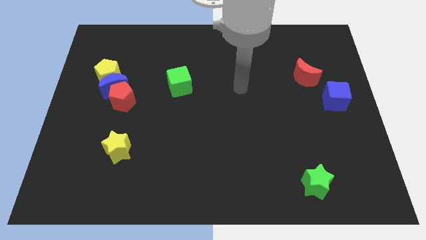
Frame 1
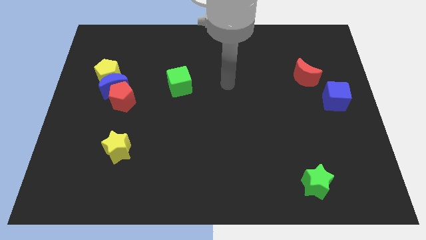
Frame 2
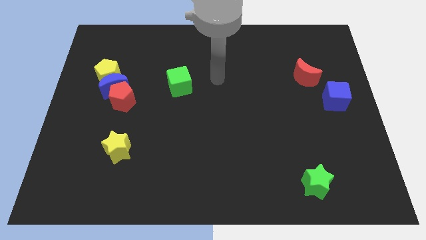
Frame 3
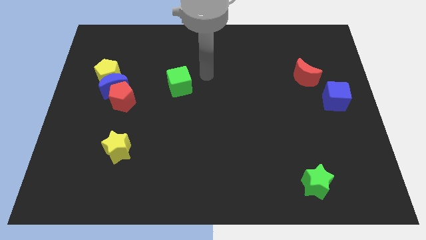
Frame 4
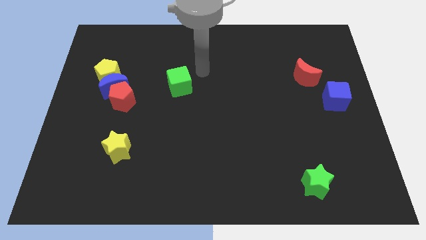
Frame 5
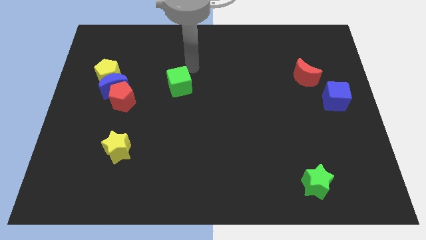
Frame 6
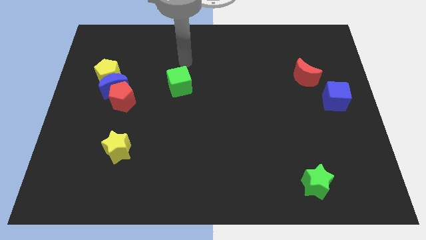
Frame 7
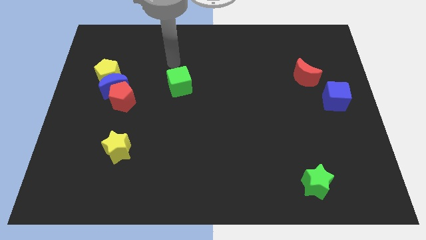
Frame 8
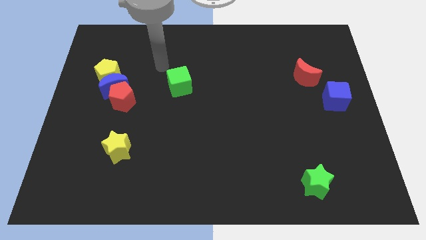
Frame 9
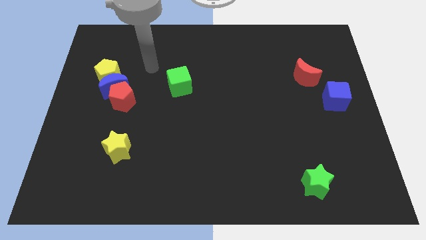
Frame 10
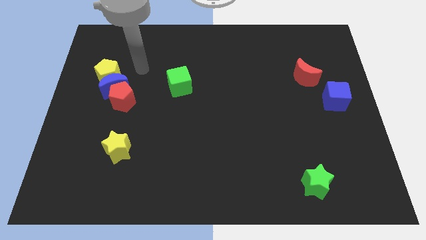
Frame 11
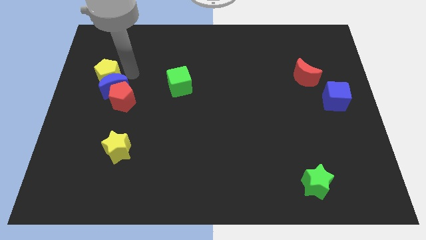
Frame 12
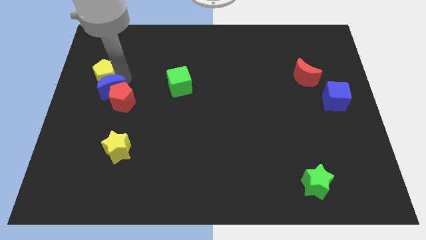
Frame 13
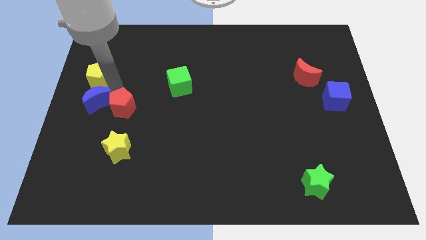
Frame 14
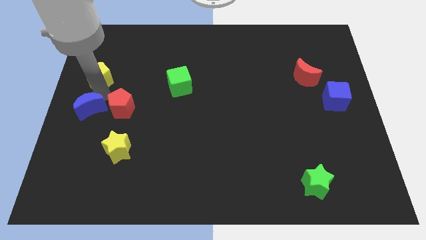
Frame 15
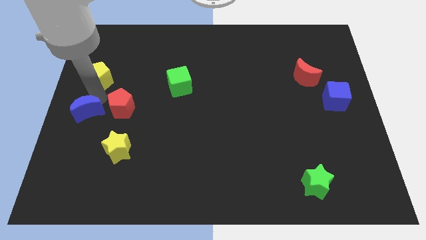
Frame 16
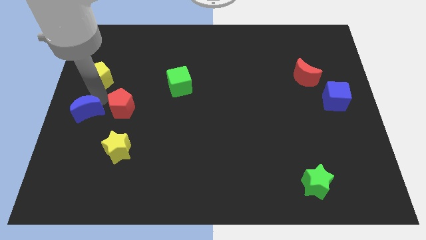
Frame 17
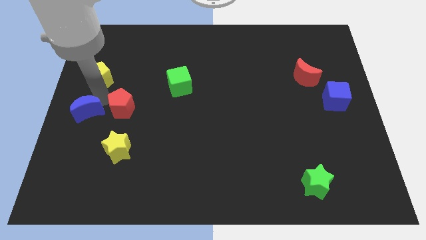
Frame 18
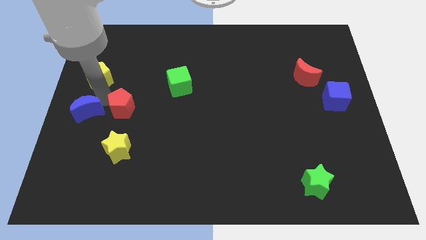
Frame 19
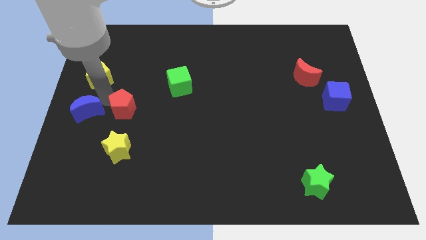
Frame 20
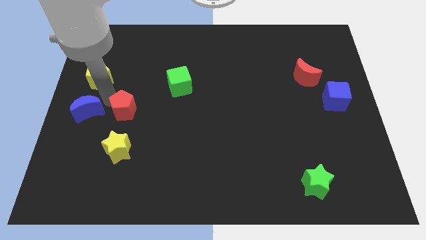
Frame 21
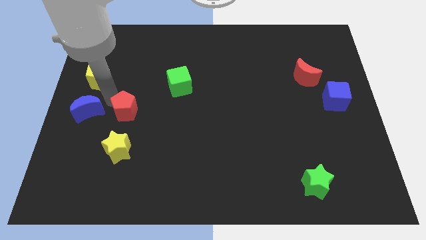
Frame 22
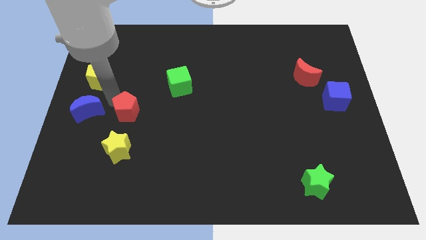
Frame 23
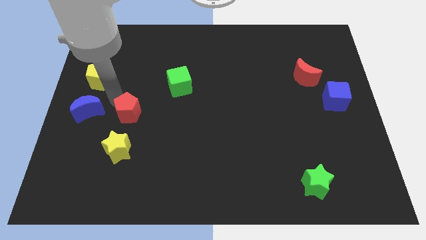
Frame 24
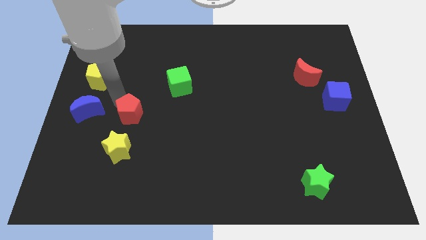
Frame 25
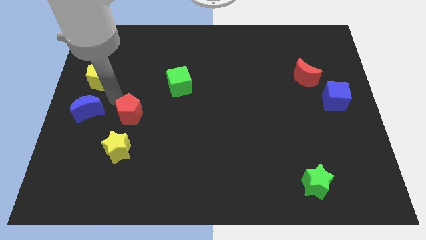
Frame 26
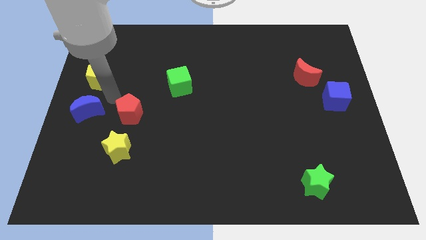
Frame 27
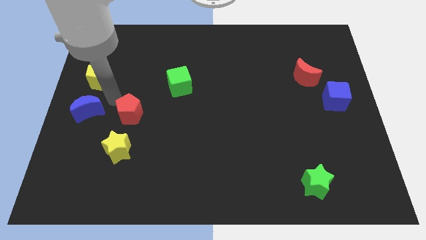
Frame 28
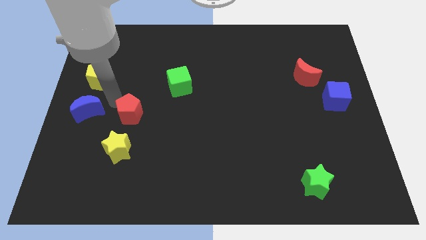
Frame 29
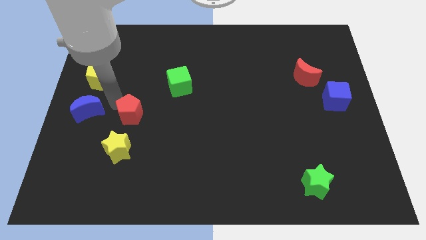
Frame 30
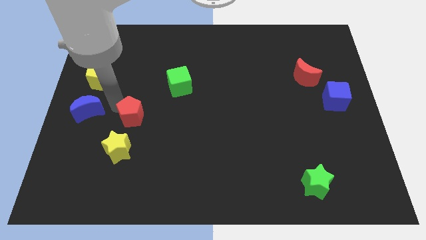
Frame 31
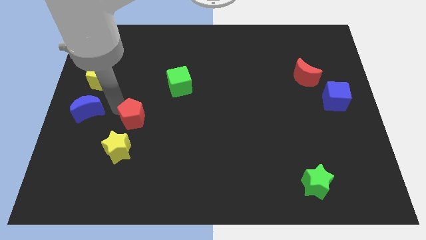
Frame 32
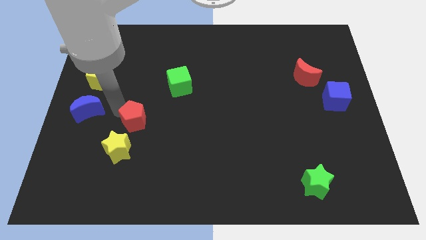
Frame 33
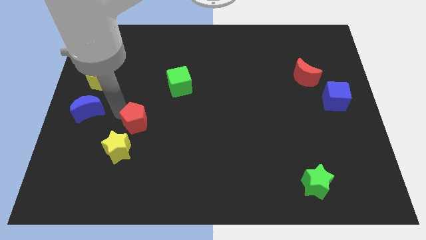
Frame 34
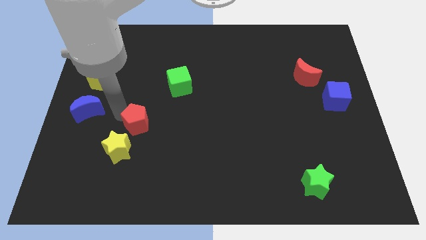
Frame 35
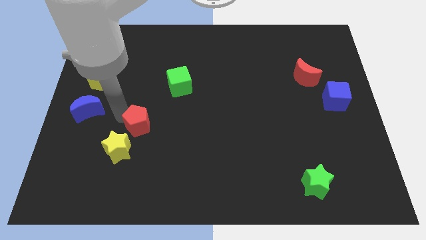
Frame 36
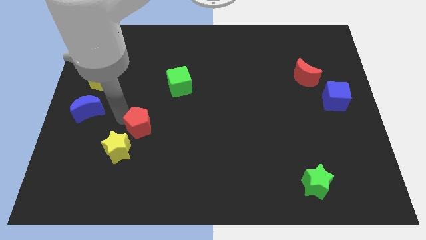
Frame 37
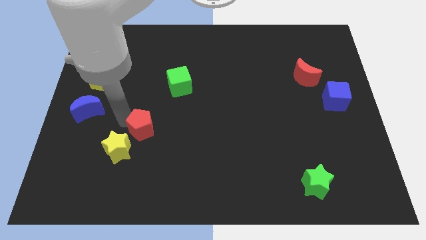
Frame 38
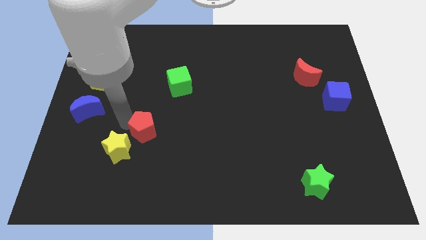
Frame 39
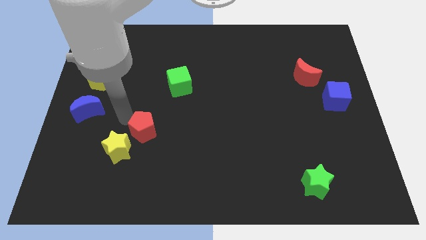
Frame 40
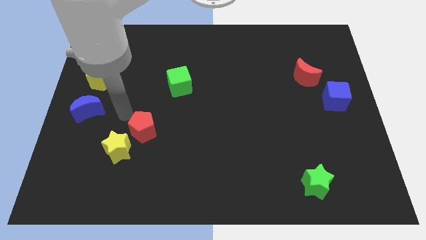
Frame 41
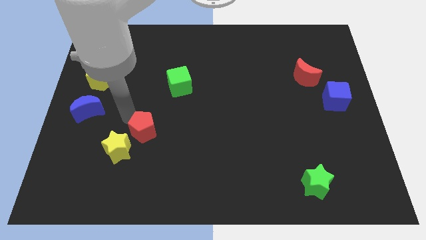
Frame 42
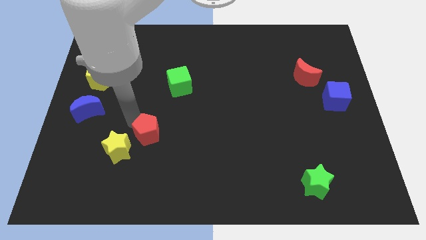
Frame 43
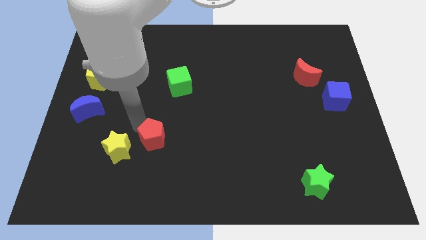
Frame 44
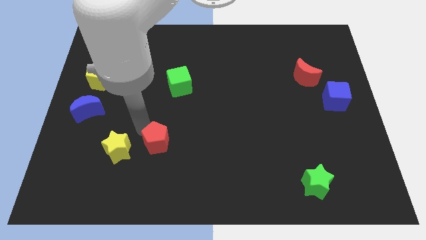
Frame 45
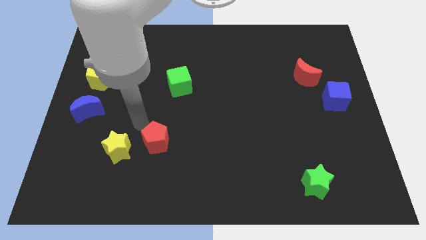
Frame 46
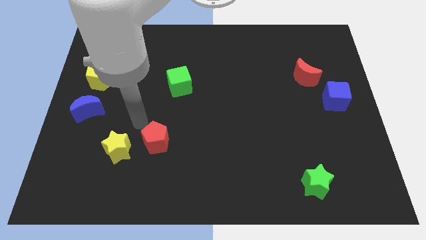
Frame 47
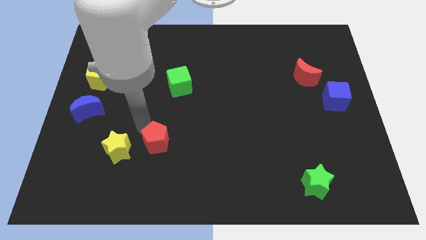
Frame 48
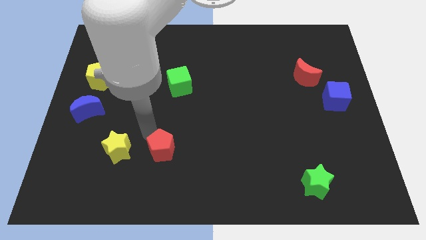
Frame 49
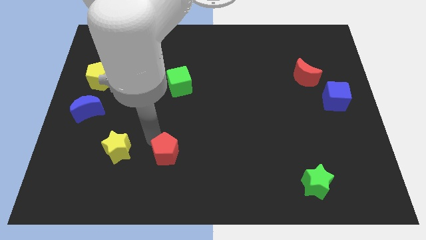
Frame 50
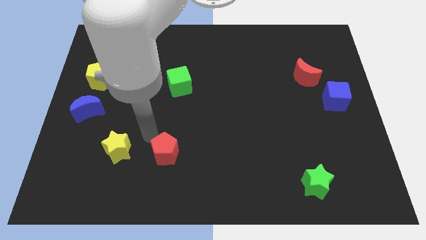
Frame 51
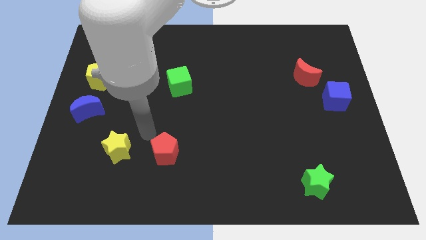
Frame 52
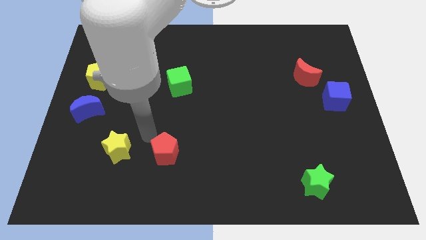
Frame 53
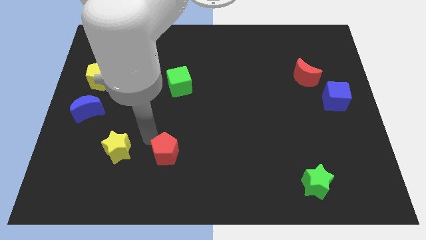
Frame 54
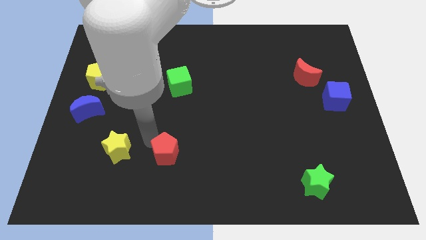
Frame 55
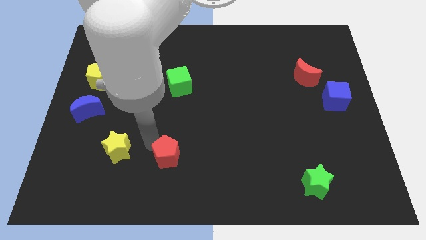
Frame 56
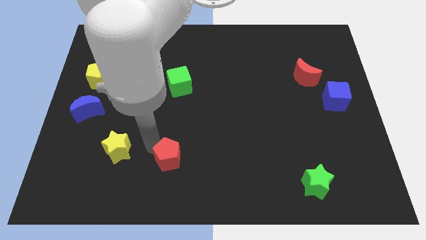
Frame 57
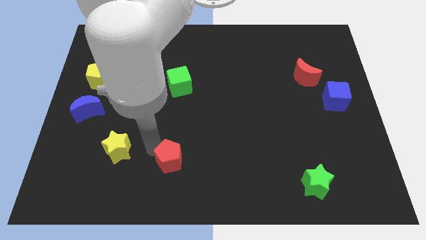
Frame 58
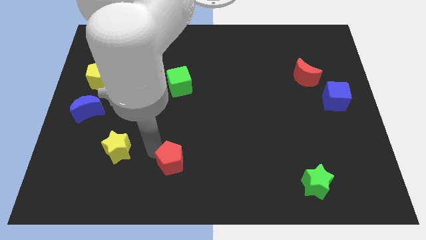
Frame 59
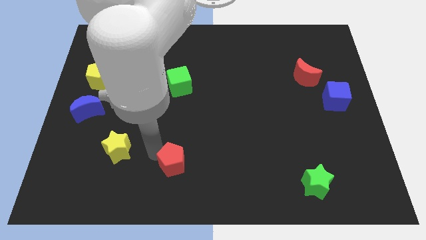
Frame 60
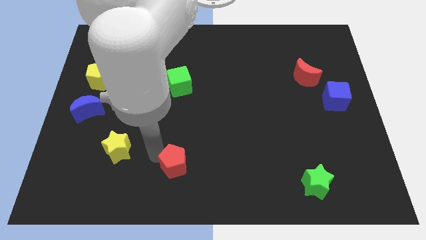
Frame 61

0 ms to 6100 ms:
push the red pentagon to the bottom

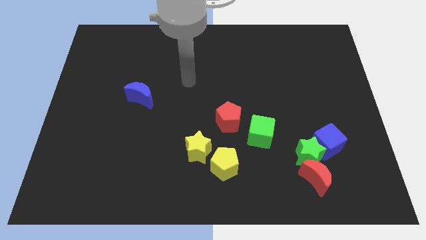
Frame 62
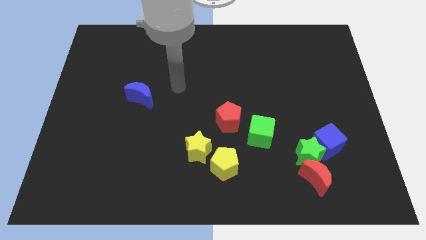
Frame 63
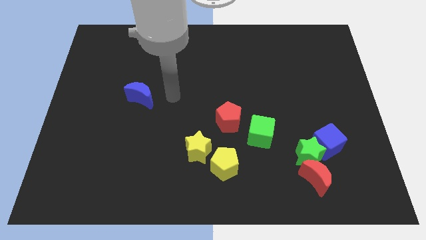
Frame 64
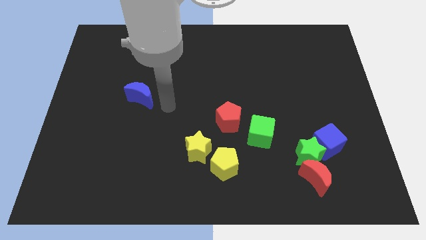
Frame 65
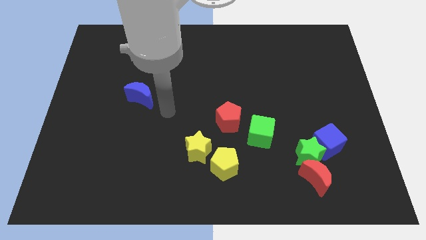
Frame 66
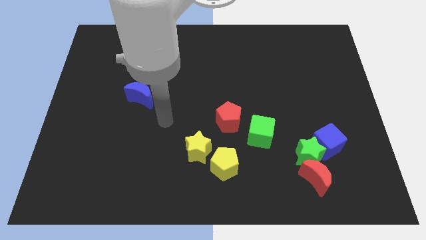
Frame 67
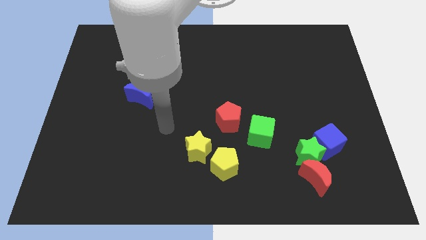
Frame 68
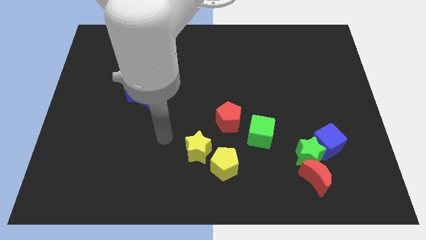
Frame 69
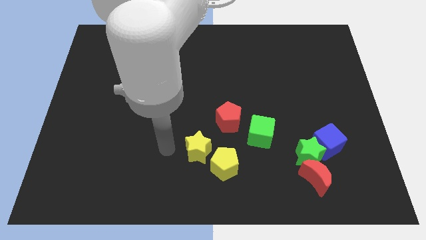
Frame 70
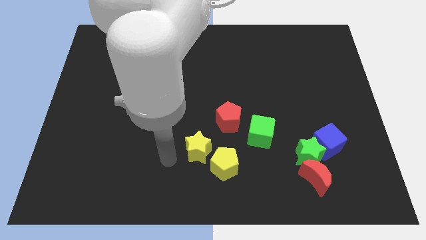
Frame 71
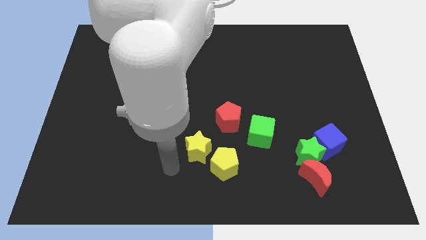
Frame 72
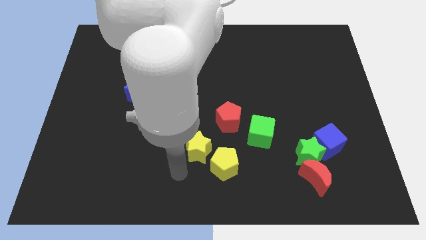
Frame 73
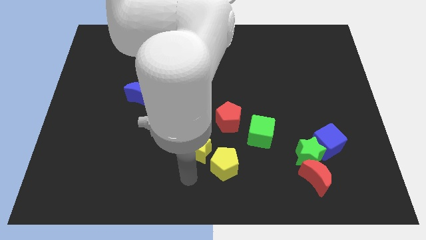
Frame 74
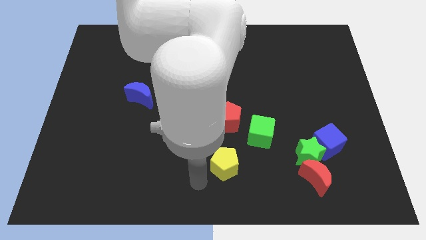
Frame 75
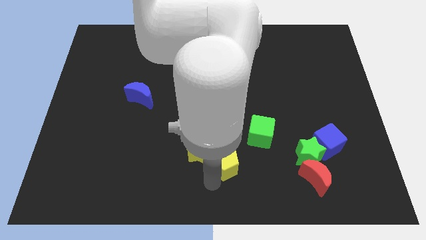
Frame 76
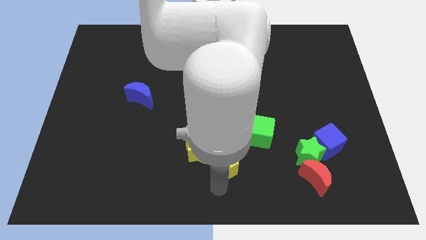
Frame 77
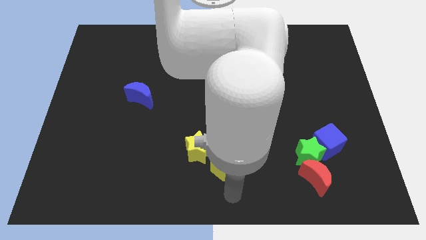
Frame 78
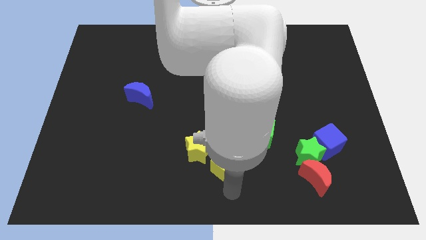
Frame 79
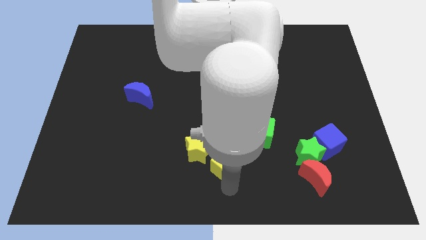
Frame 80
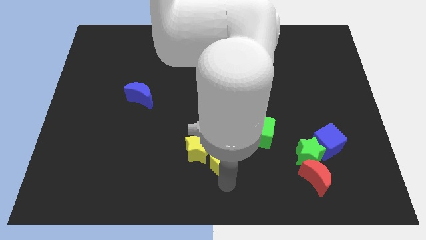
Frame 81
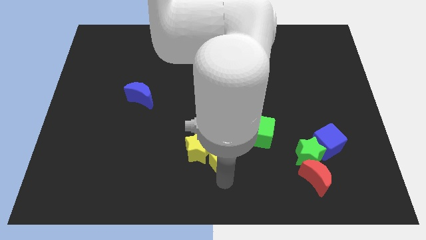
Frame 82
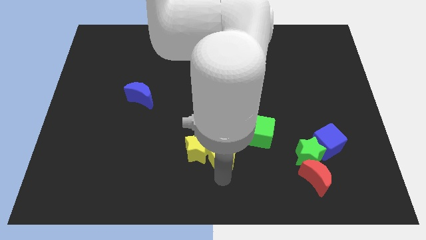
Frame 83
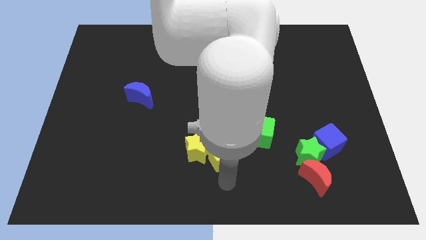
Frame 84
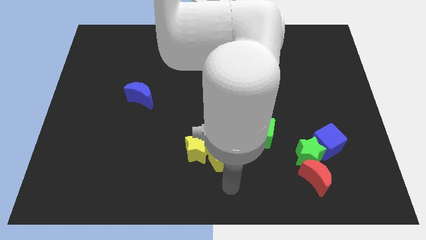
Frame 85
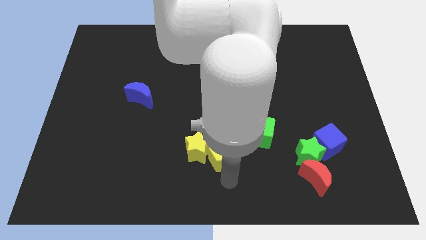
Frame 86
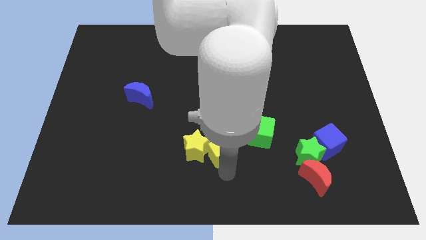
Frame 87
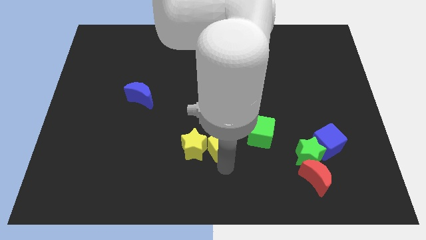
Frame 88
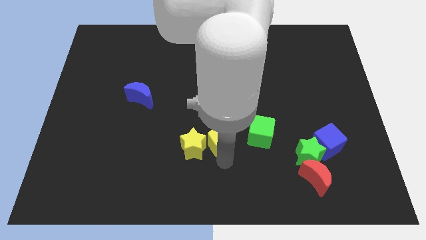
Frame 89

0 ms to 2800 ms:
slide the yellow pentagon to the middle
